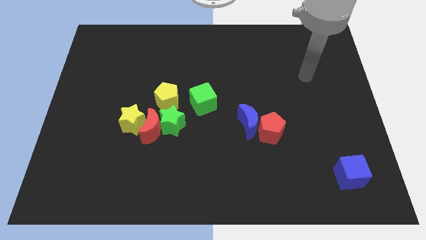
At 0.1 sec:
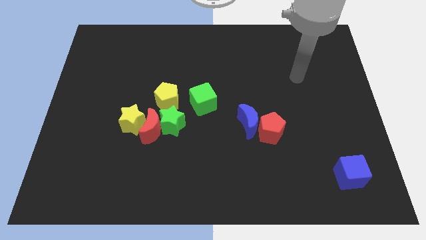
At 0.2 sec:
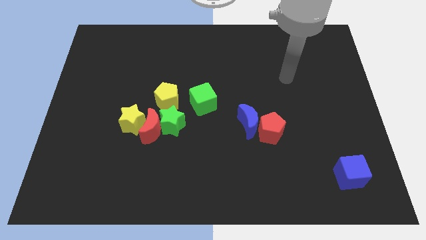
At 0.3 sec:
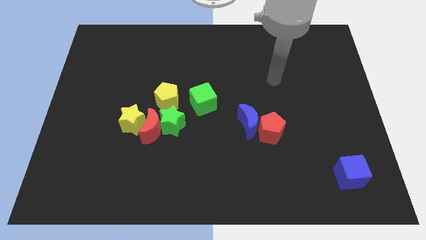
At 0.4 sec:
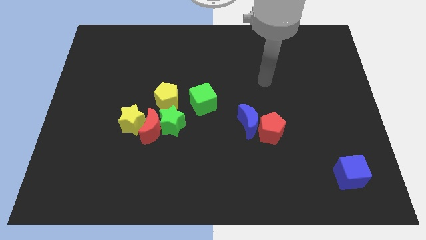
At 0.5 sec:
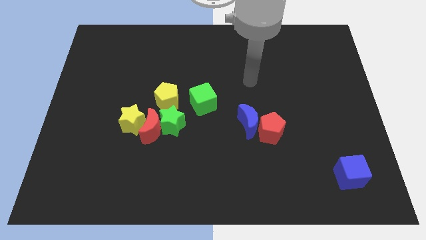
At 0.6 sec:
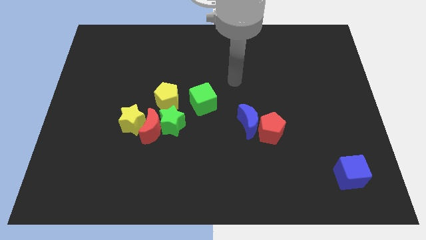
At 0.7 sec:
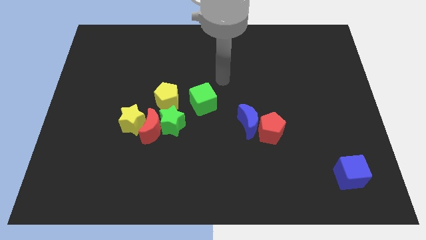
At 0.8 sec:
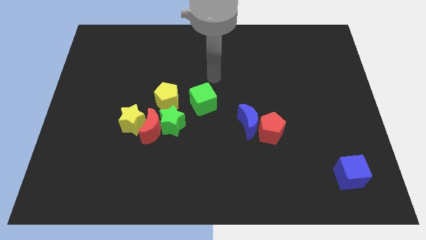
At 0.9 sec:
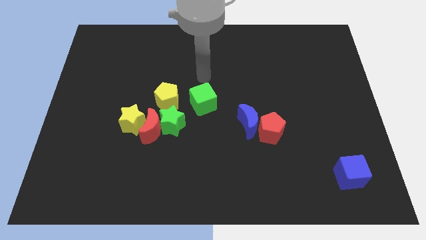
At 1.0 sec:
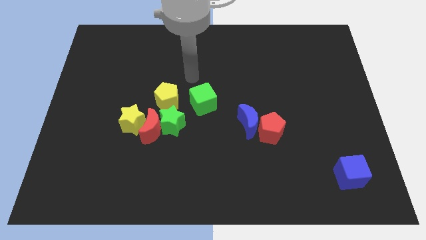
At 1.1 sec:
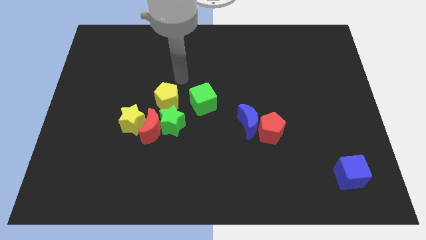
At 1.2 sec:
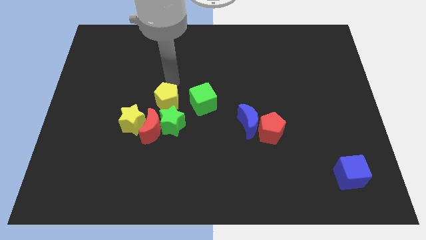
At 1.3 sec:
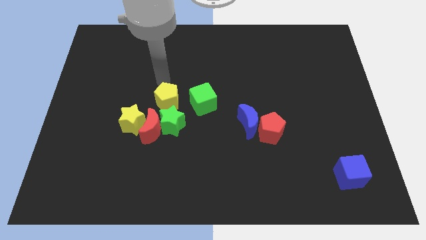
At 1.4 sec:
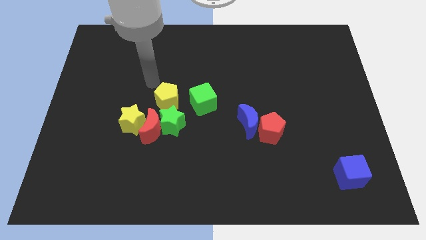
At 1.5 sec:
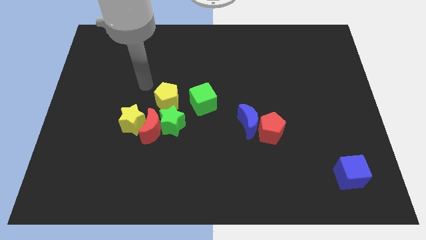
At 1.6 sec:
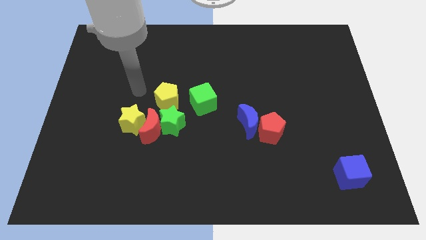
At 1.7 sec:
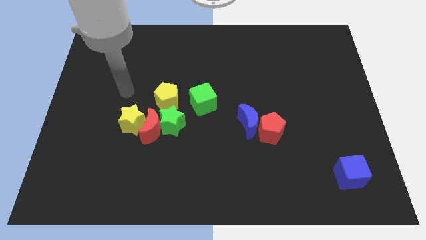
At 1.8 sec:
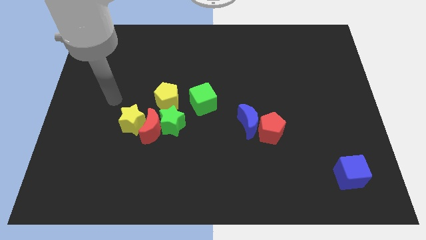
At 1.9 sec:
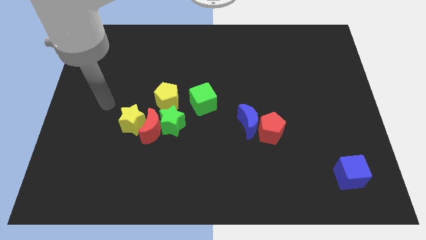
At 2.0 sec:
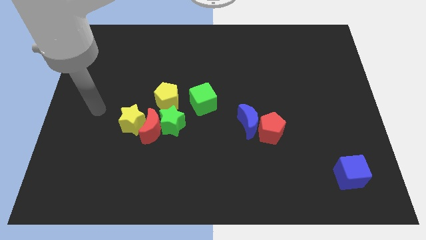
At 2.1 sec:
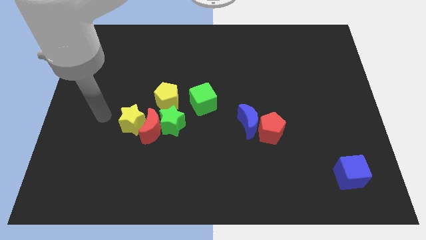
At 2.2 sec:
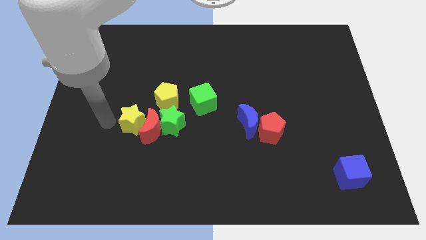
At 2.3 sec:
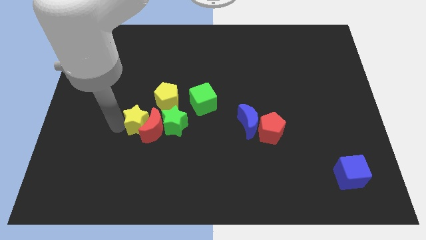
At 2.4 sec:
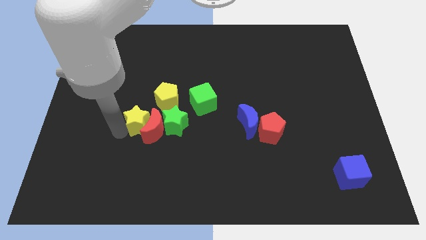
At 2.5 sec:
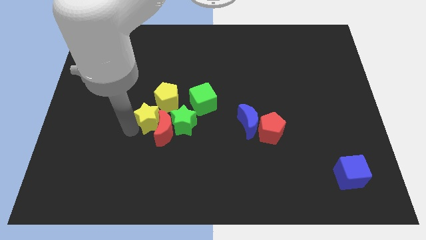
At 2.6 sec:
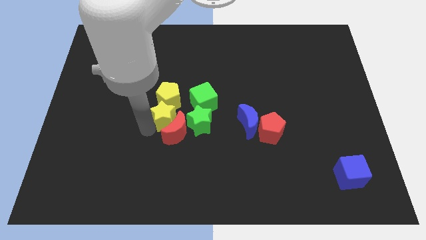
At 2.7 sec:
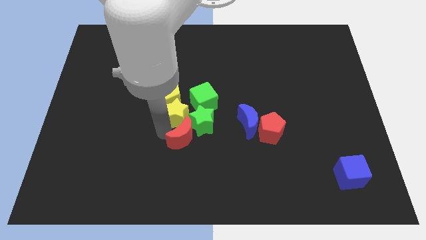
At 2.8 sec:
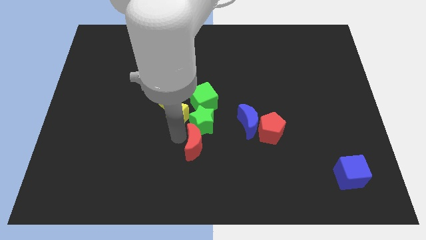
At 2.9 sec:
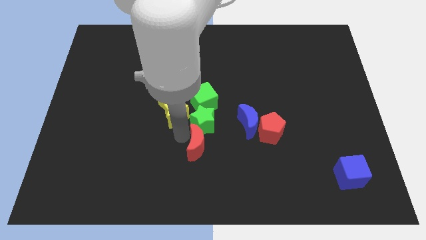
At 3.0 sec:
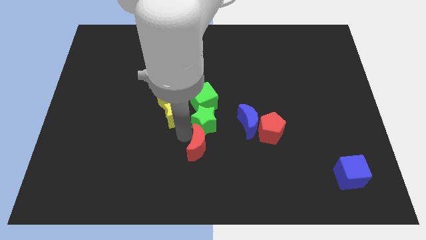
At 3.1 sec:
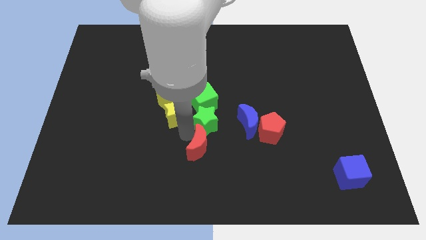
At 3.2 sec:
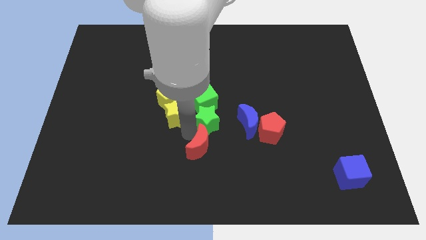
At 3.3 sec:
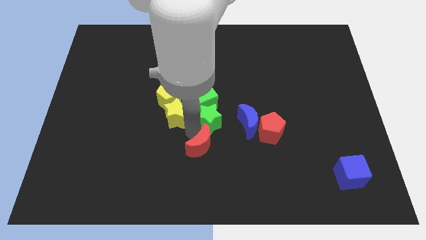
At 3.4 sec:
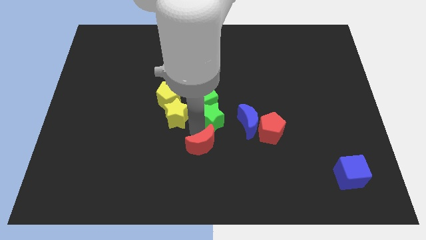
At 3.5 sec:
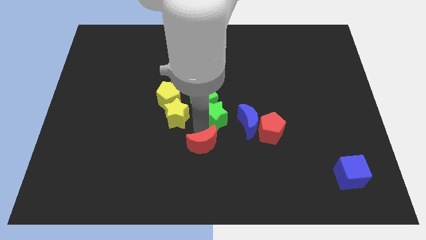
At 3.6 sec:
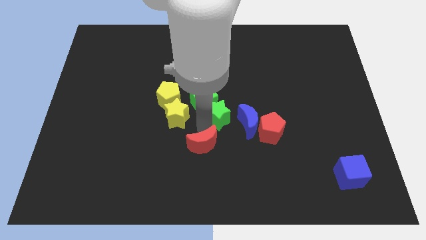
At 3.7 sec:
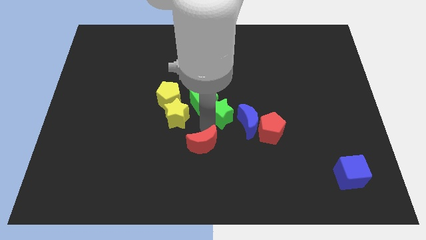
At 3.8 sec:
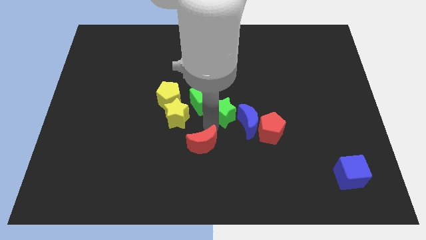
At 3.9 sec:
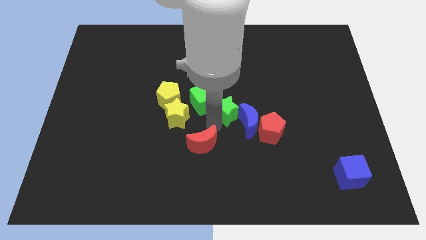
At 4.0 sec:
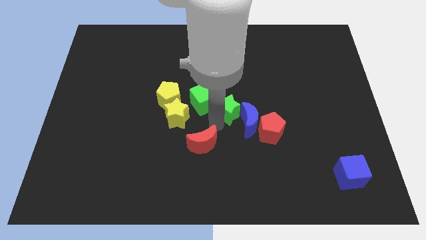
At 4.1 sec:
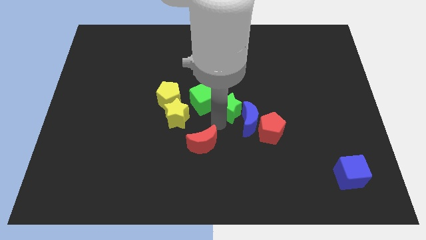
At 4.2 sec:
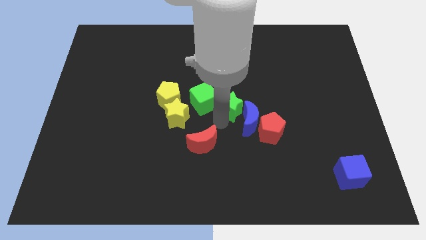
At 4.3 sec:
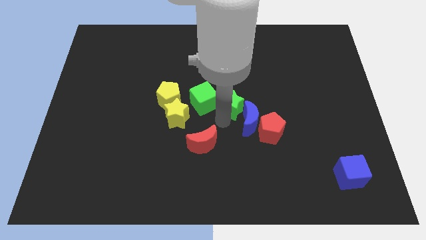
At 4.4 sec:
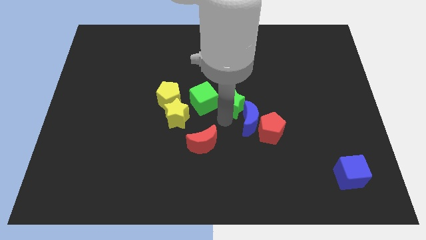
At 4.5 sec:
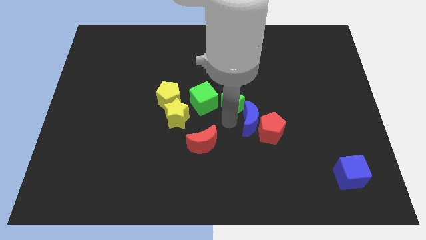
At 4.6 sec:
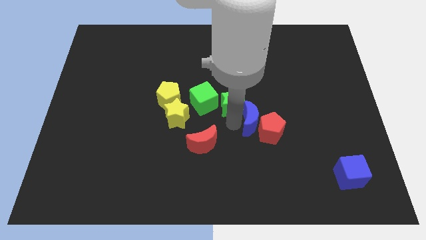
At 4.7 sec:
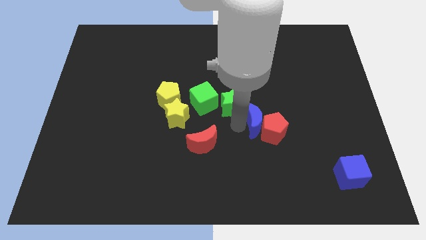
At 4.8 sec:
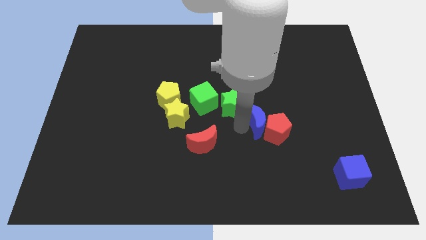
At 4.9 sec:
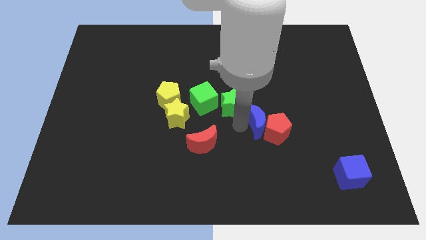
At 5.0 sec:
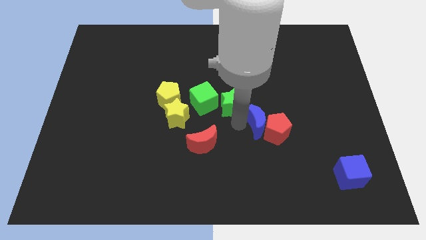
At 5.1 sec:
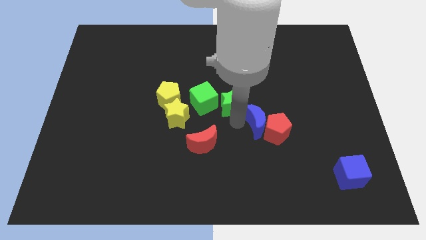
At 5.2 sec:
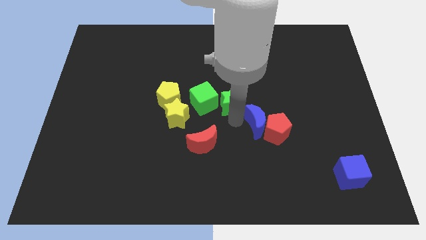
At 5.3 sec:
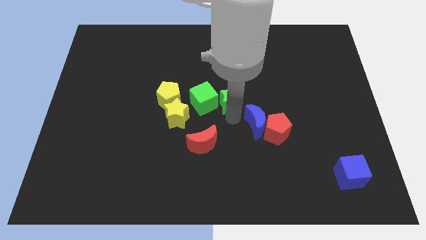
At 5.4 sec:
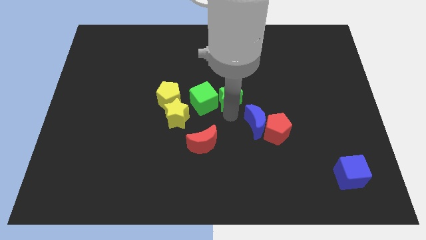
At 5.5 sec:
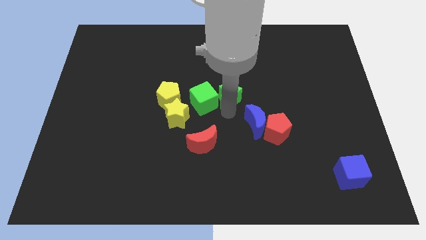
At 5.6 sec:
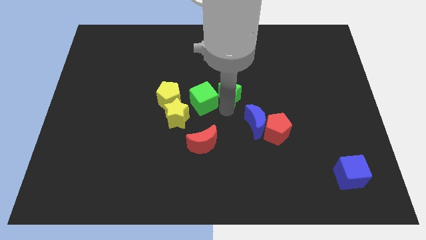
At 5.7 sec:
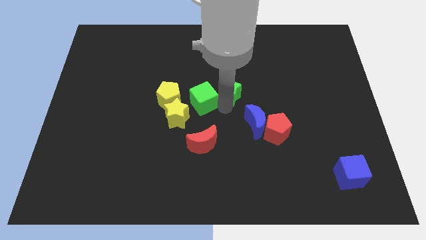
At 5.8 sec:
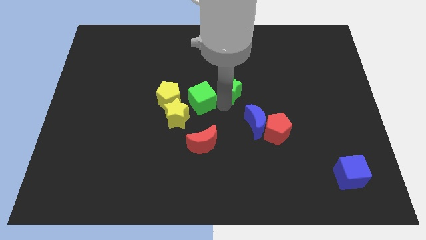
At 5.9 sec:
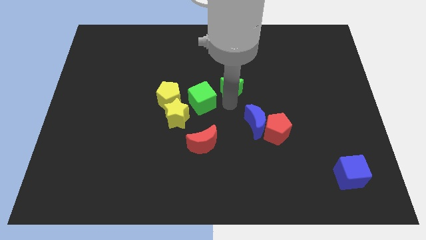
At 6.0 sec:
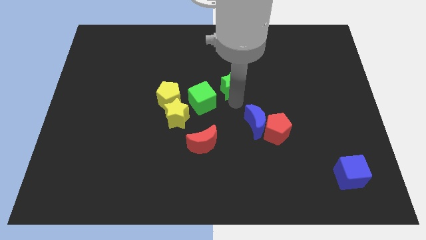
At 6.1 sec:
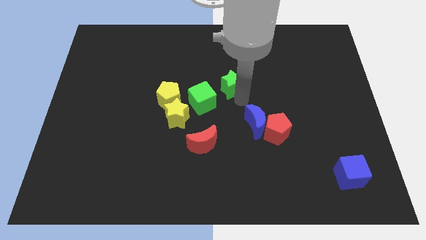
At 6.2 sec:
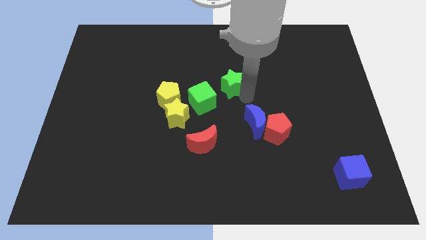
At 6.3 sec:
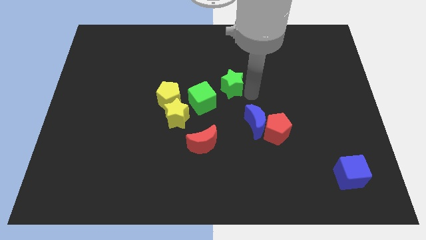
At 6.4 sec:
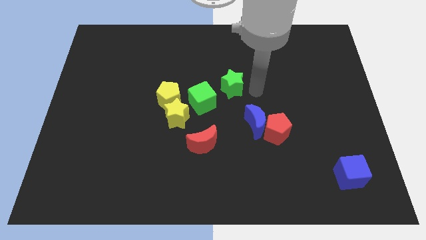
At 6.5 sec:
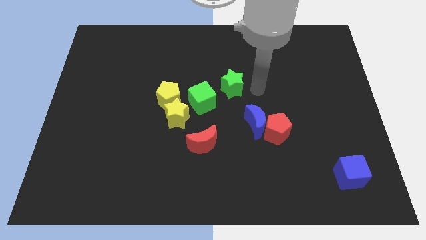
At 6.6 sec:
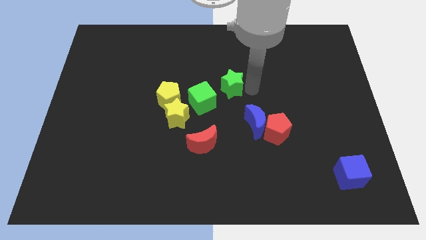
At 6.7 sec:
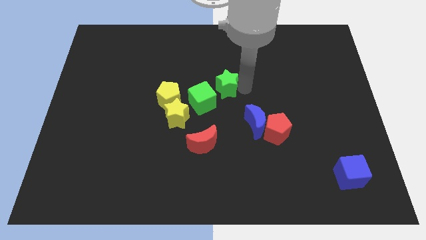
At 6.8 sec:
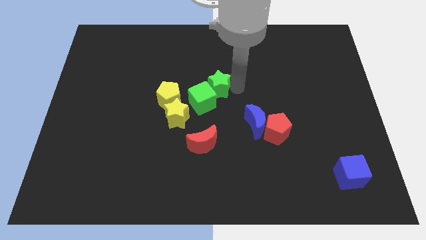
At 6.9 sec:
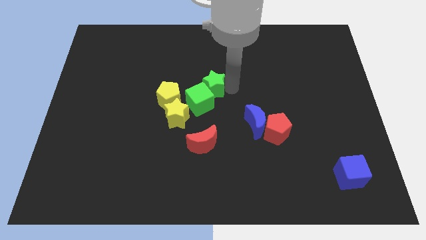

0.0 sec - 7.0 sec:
push the green star a little bit up

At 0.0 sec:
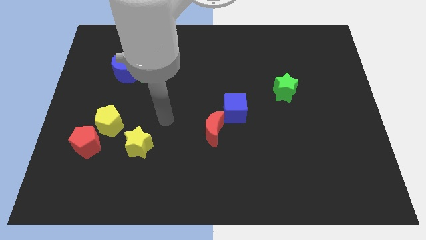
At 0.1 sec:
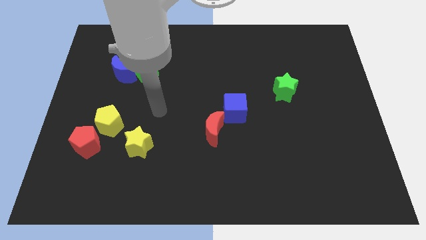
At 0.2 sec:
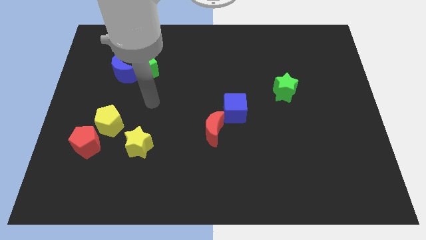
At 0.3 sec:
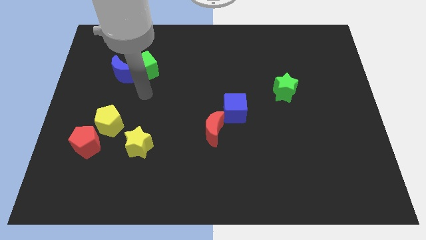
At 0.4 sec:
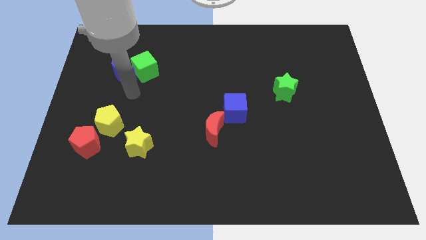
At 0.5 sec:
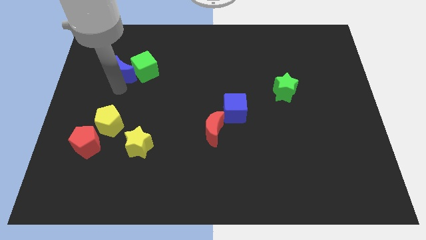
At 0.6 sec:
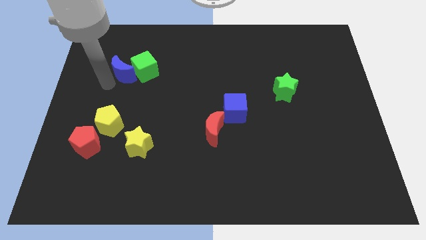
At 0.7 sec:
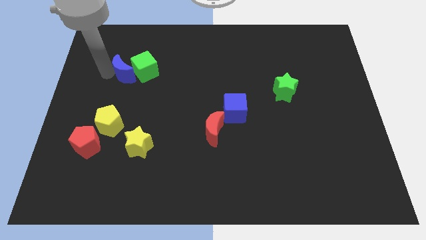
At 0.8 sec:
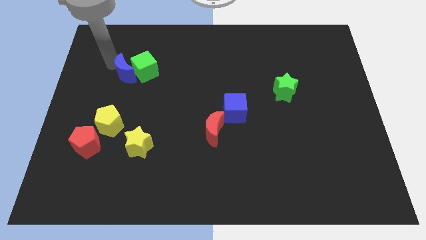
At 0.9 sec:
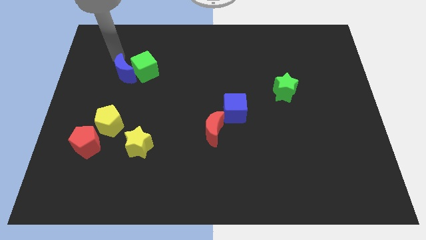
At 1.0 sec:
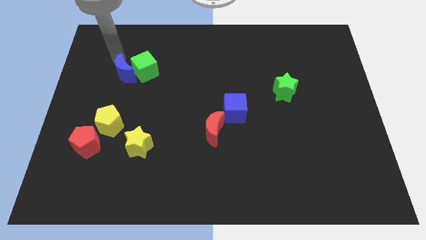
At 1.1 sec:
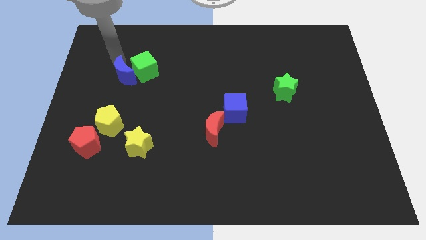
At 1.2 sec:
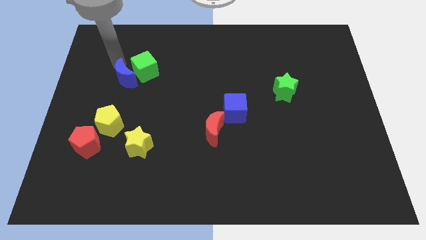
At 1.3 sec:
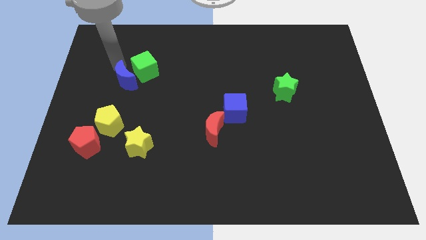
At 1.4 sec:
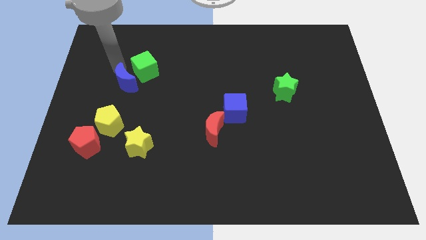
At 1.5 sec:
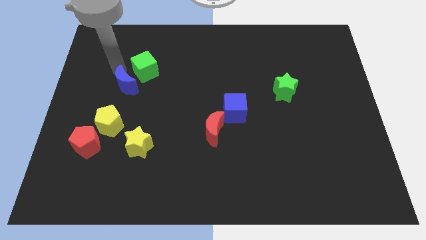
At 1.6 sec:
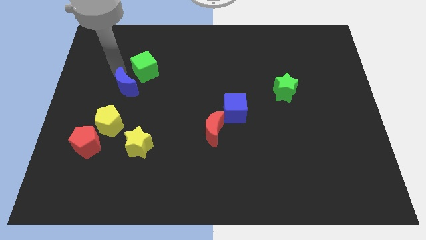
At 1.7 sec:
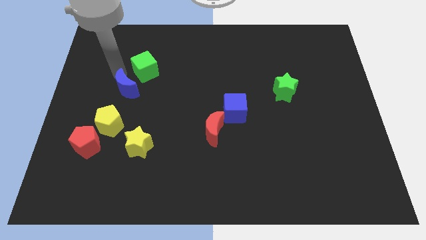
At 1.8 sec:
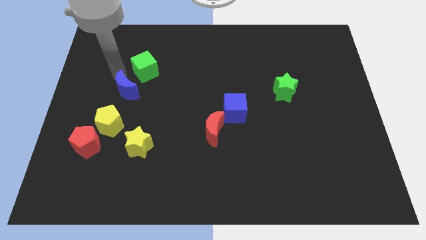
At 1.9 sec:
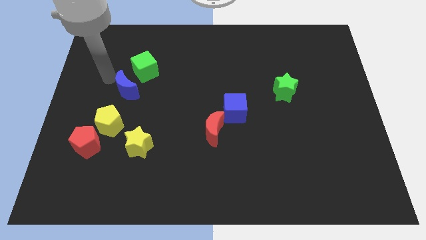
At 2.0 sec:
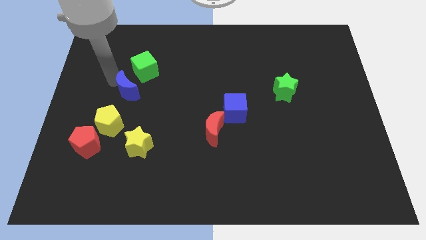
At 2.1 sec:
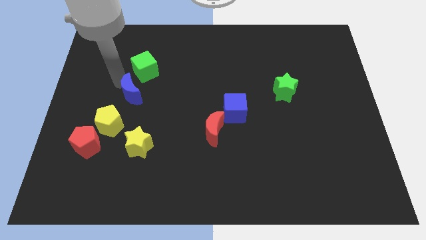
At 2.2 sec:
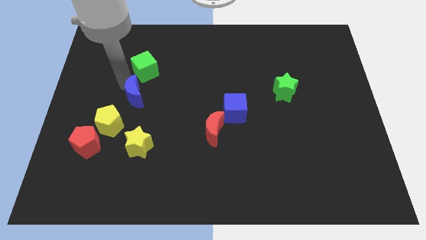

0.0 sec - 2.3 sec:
slide the blue moon diagonally down and to the right somewhat
